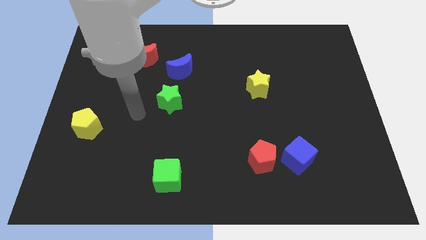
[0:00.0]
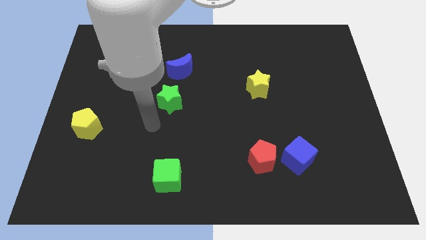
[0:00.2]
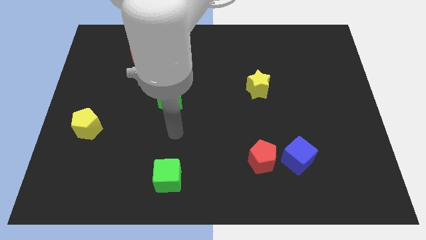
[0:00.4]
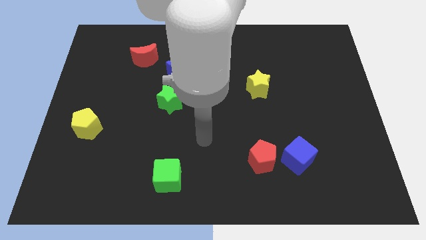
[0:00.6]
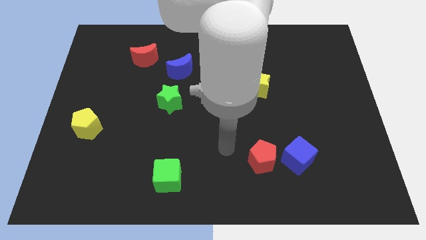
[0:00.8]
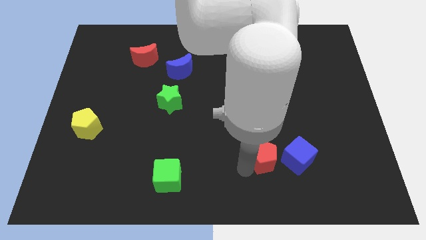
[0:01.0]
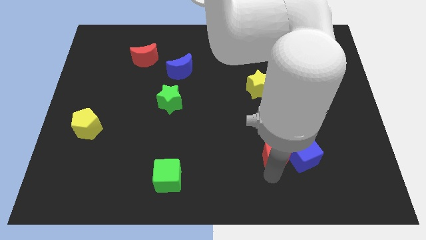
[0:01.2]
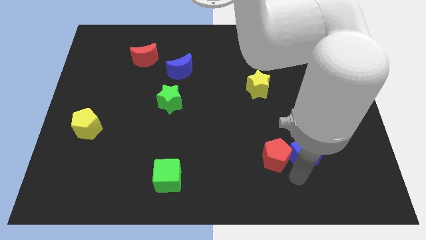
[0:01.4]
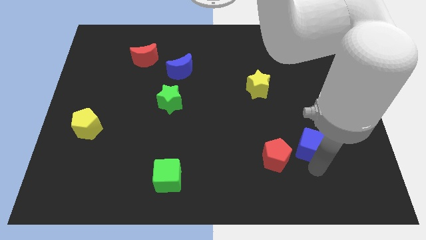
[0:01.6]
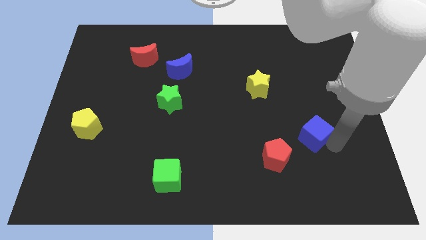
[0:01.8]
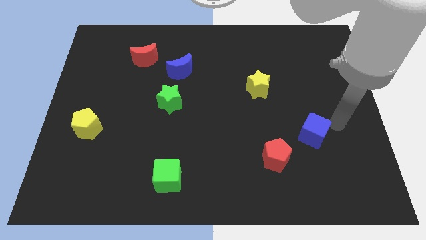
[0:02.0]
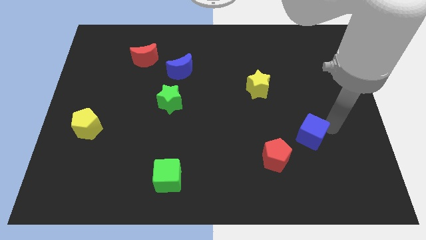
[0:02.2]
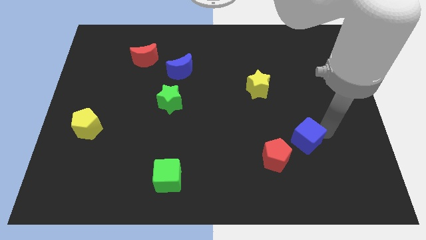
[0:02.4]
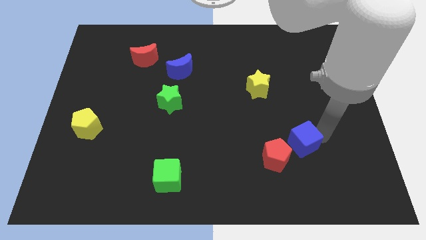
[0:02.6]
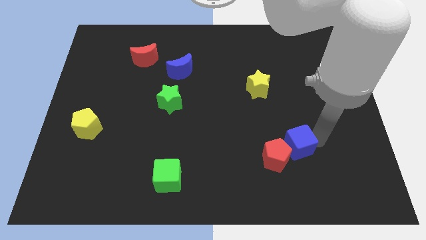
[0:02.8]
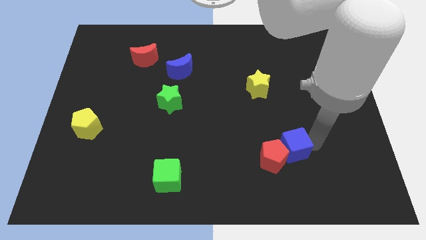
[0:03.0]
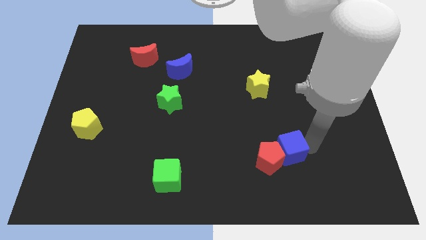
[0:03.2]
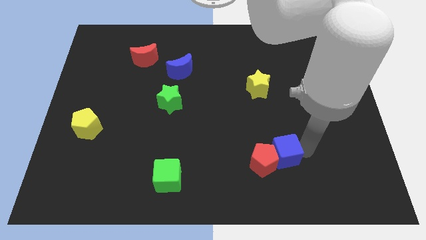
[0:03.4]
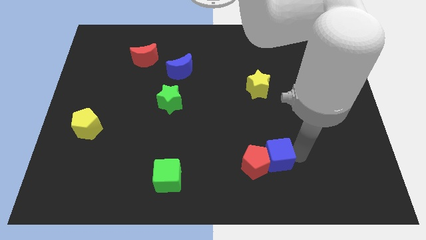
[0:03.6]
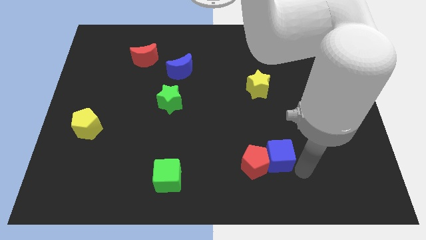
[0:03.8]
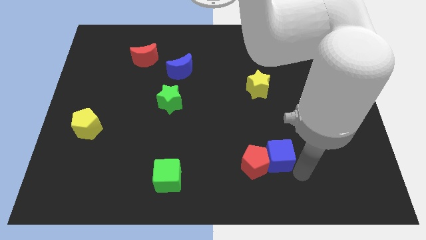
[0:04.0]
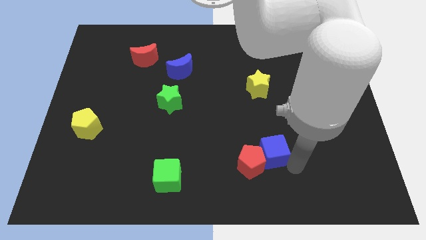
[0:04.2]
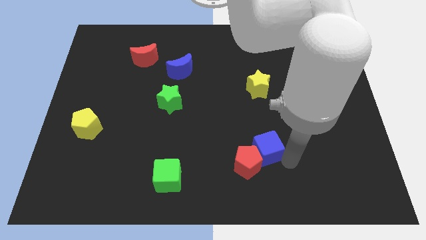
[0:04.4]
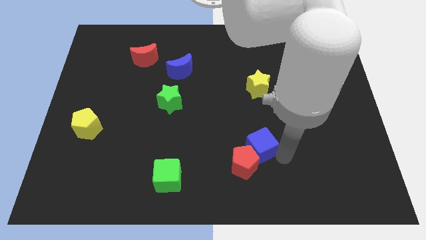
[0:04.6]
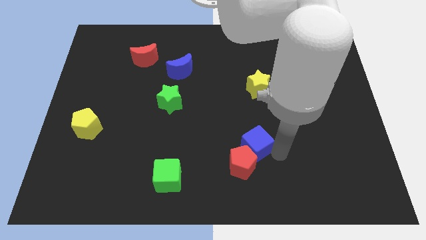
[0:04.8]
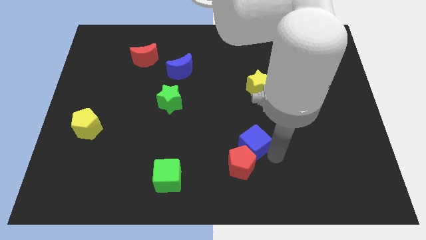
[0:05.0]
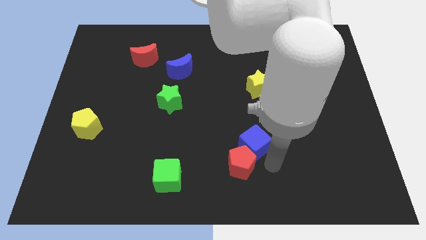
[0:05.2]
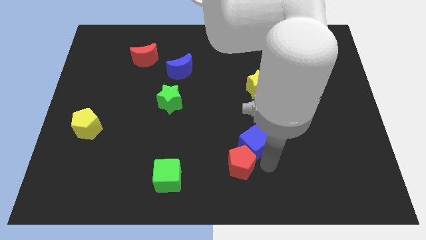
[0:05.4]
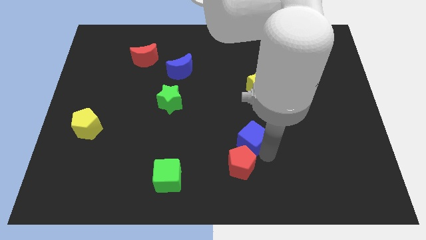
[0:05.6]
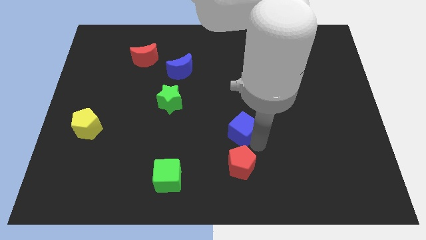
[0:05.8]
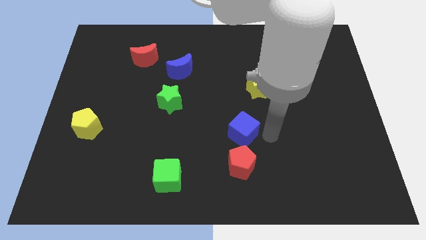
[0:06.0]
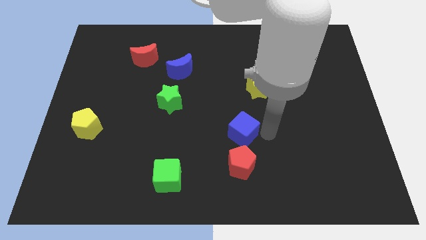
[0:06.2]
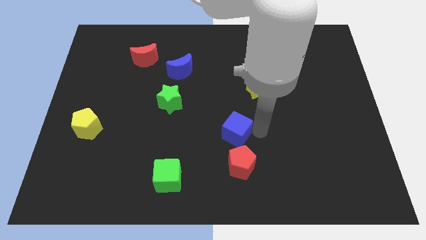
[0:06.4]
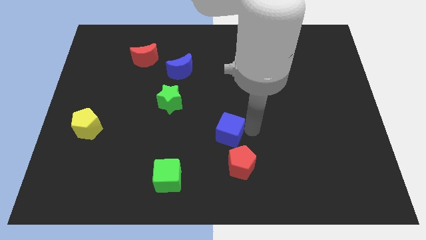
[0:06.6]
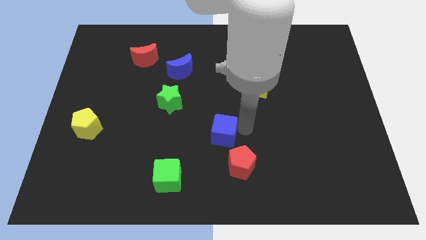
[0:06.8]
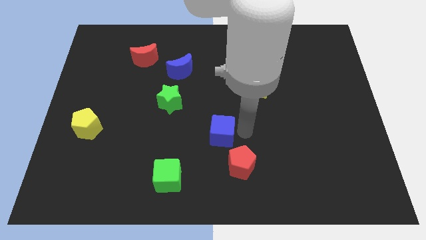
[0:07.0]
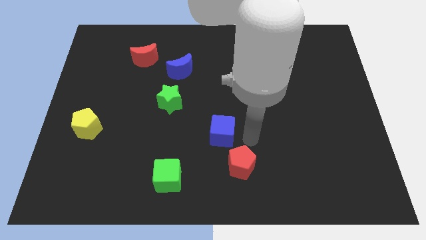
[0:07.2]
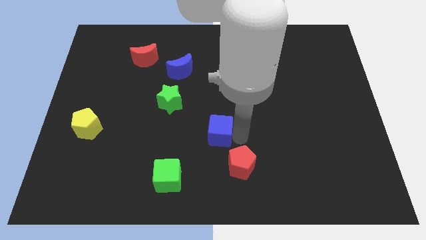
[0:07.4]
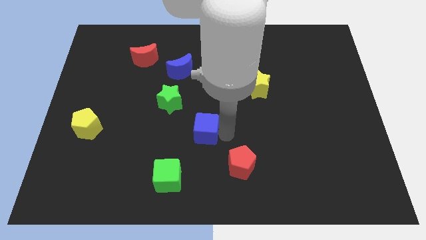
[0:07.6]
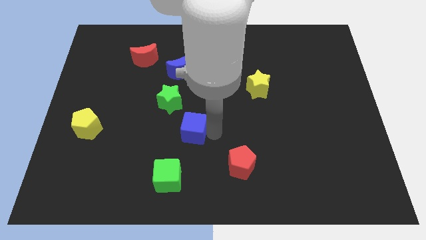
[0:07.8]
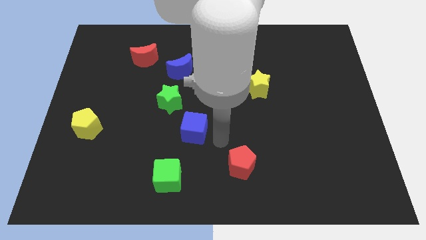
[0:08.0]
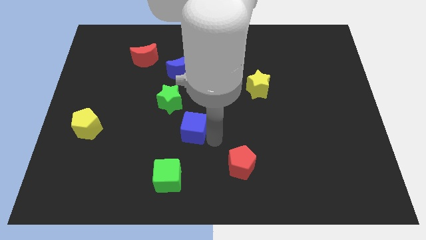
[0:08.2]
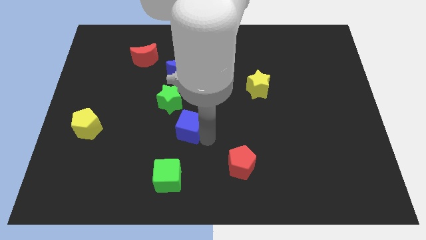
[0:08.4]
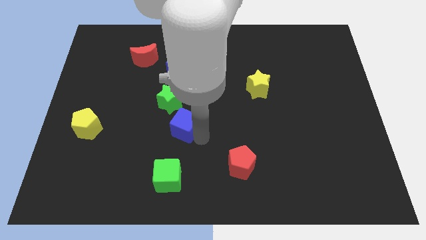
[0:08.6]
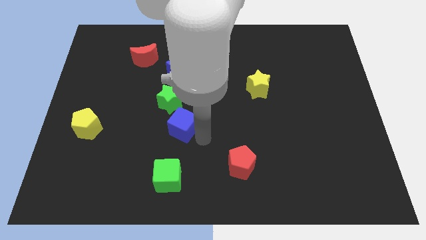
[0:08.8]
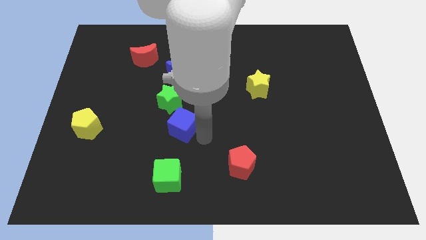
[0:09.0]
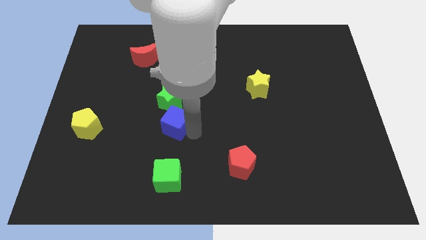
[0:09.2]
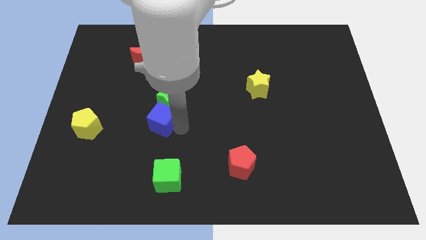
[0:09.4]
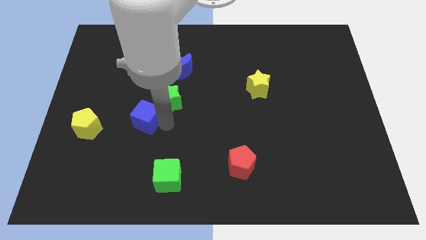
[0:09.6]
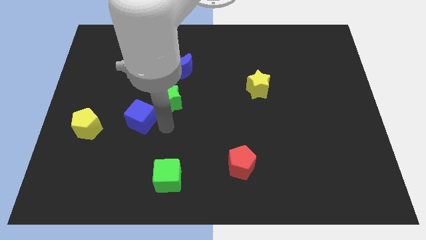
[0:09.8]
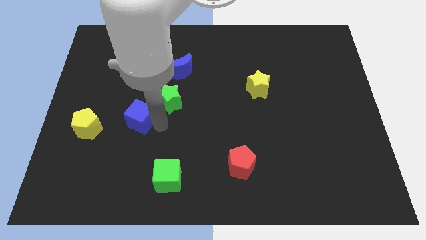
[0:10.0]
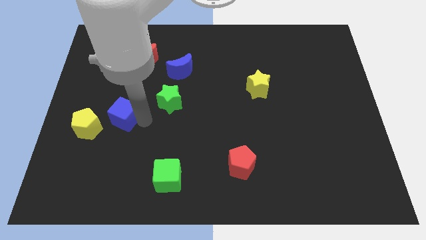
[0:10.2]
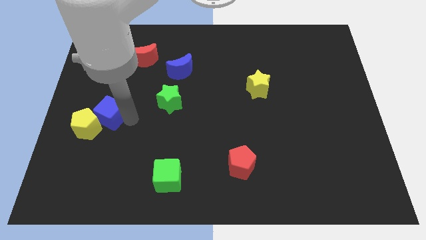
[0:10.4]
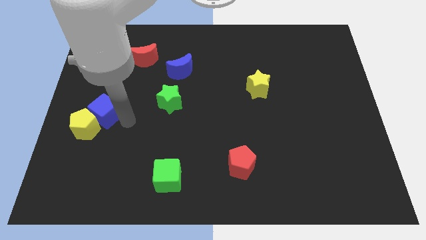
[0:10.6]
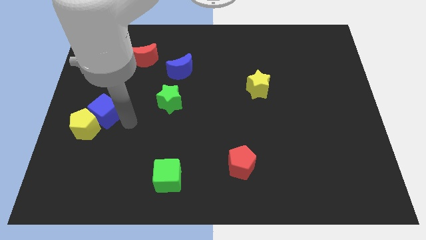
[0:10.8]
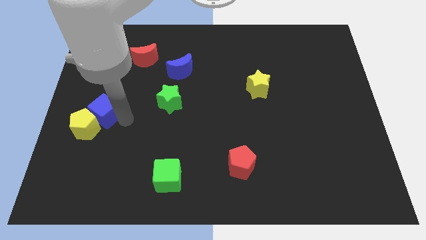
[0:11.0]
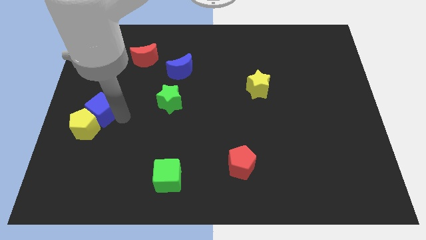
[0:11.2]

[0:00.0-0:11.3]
push the blue cube to the center left

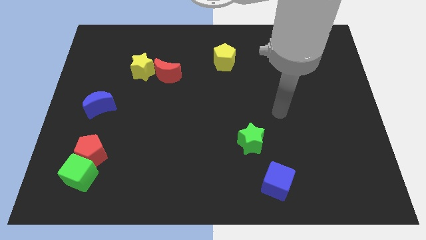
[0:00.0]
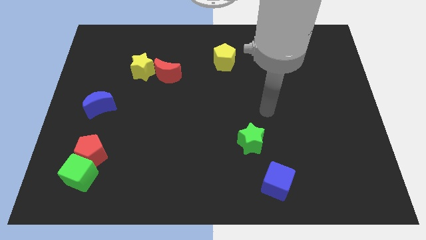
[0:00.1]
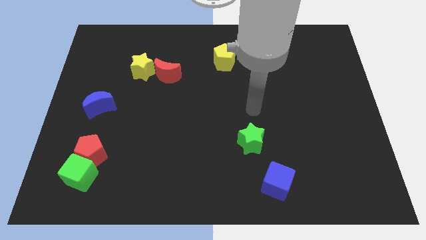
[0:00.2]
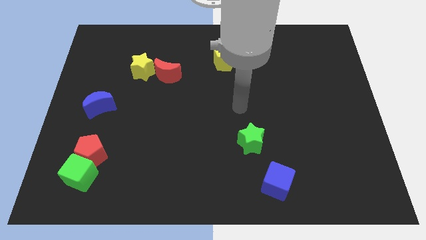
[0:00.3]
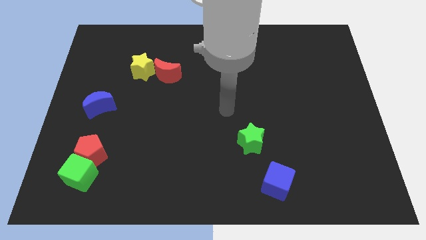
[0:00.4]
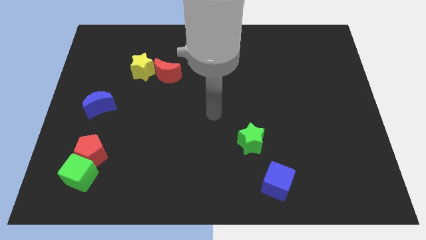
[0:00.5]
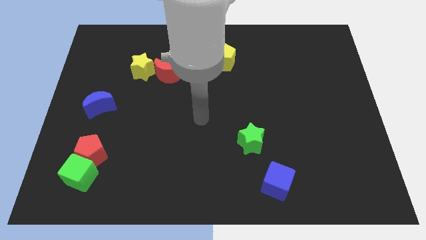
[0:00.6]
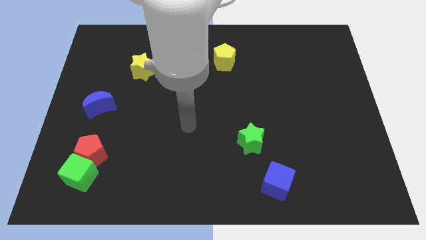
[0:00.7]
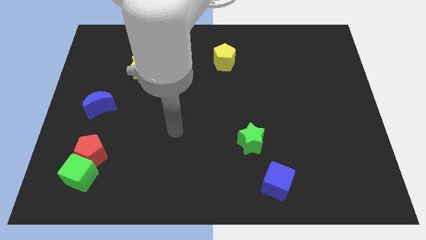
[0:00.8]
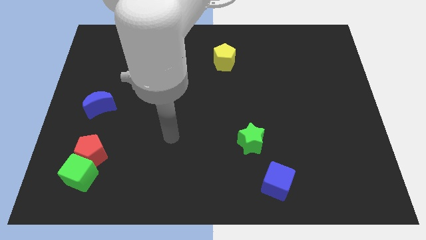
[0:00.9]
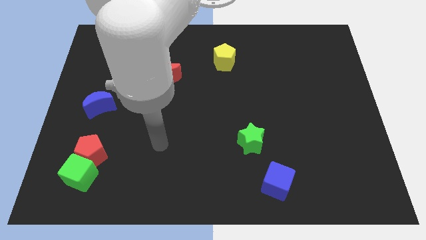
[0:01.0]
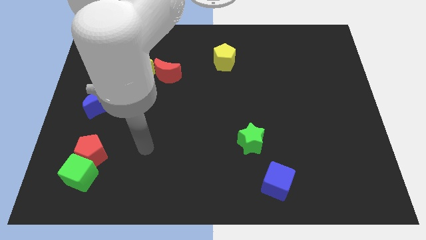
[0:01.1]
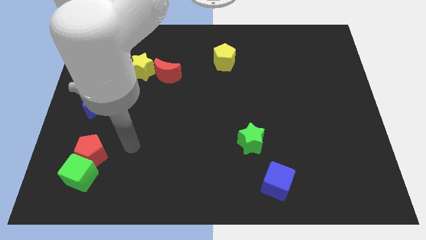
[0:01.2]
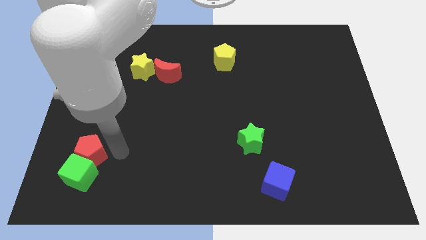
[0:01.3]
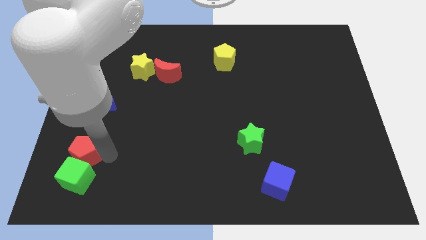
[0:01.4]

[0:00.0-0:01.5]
move the green cube to the bottom left of the board

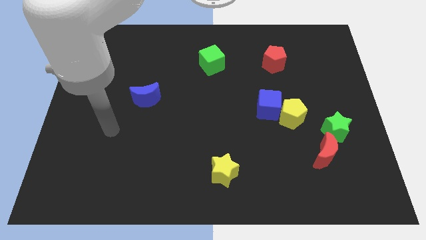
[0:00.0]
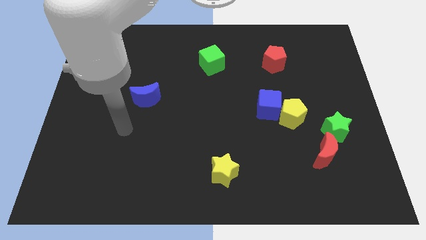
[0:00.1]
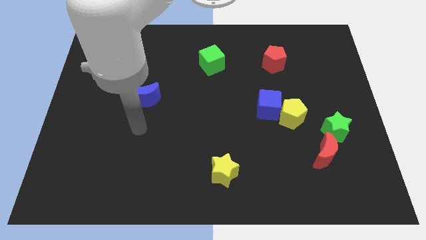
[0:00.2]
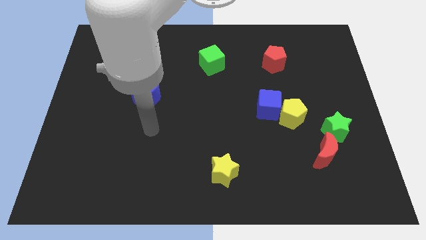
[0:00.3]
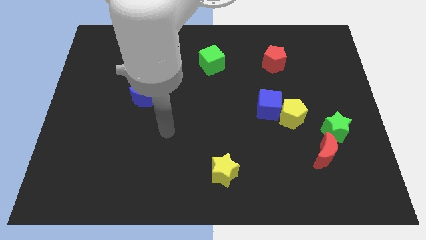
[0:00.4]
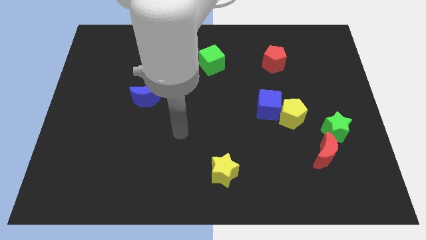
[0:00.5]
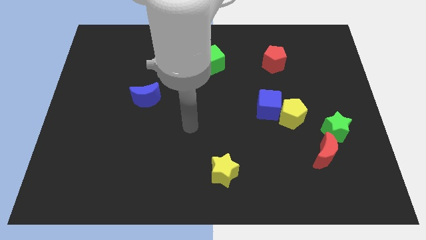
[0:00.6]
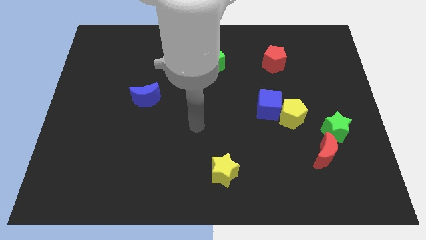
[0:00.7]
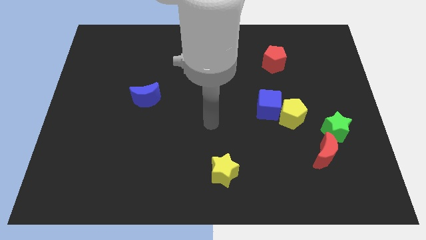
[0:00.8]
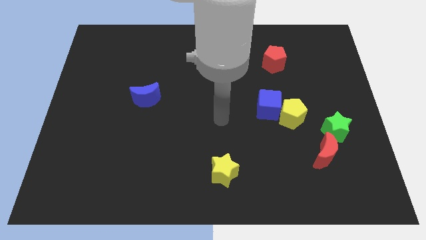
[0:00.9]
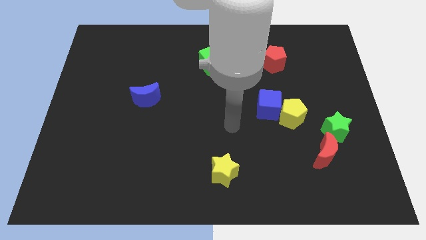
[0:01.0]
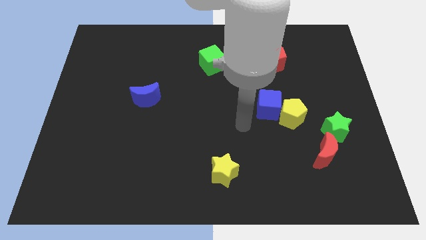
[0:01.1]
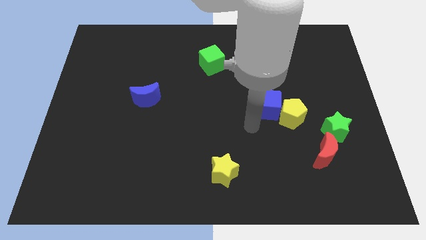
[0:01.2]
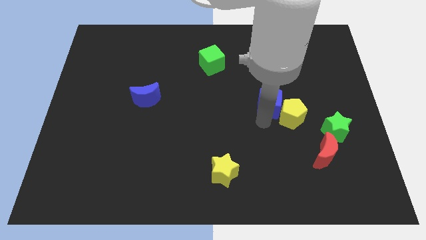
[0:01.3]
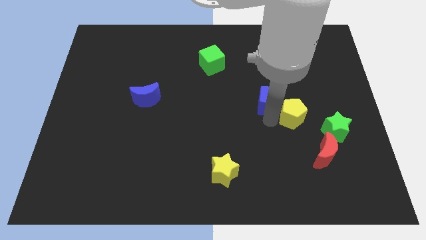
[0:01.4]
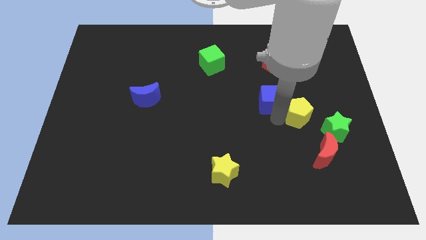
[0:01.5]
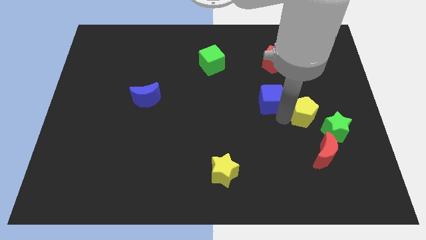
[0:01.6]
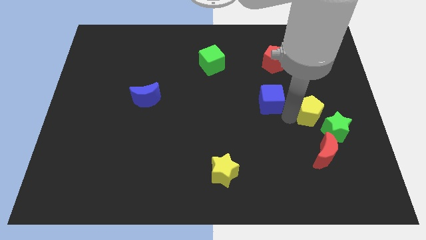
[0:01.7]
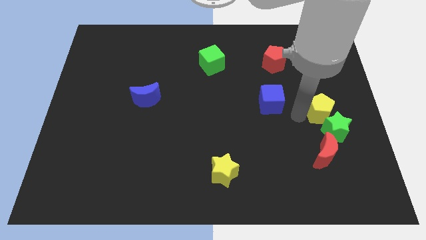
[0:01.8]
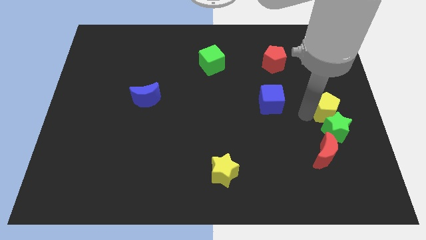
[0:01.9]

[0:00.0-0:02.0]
push the yellow pentagon to the right side
